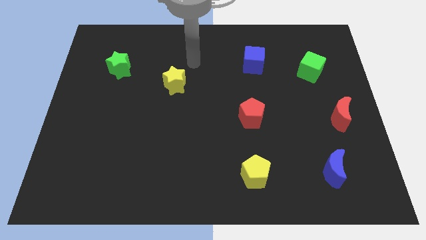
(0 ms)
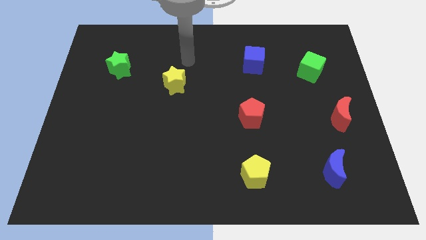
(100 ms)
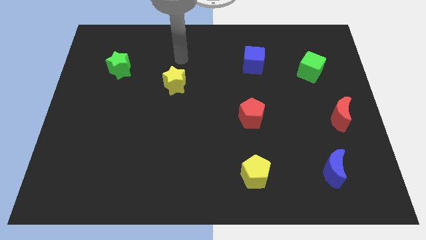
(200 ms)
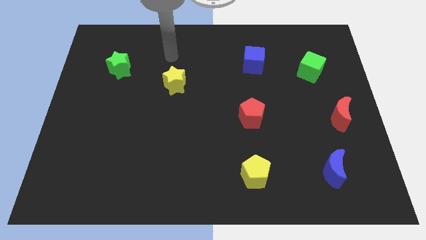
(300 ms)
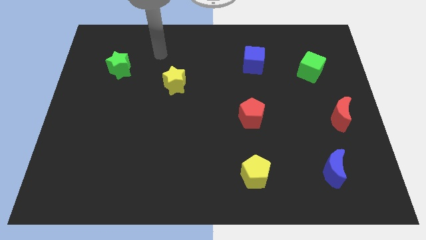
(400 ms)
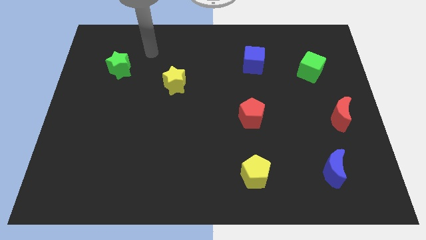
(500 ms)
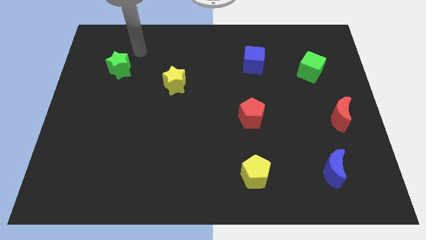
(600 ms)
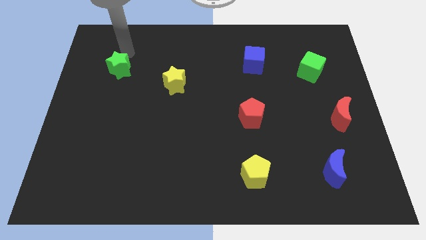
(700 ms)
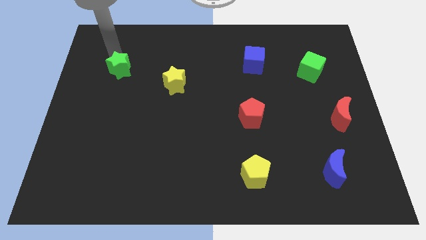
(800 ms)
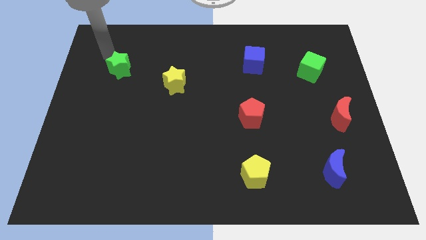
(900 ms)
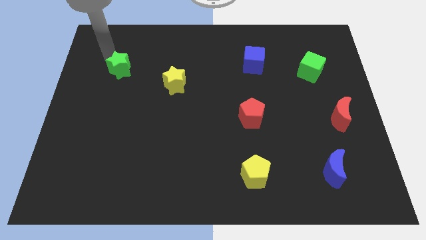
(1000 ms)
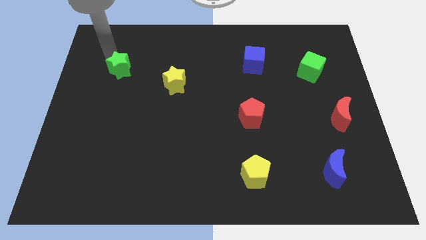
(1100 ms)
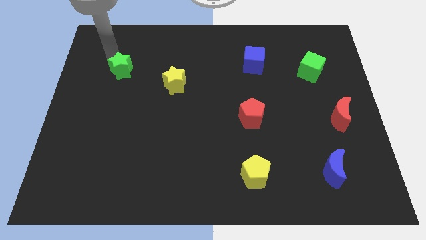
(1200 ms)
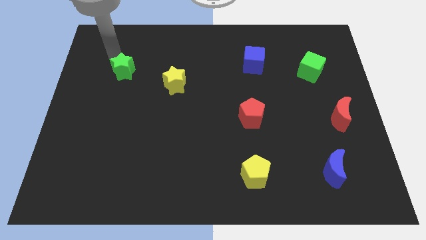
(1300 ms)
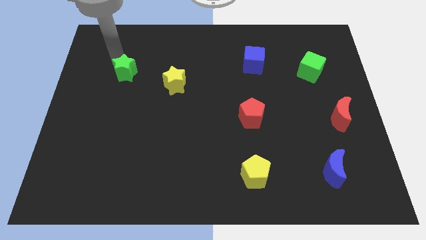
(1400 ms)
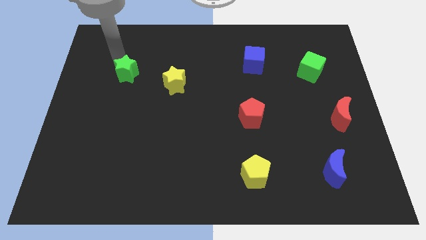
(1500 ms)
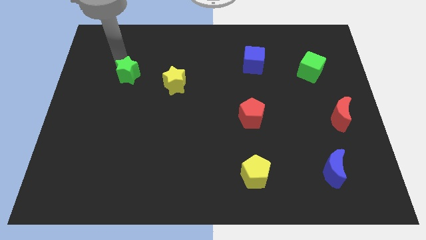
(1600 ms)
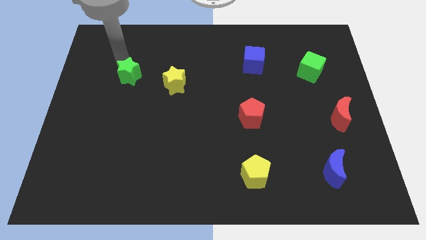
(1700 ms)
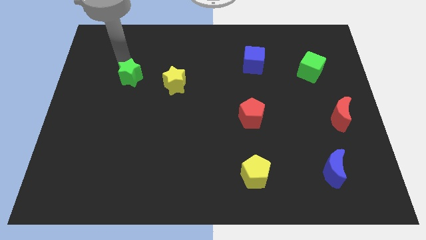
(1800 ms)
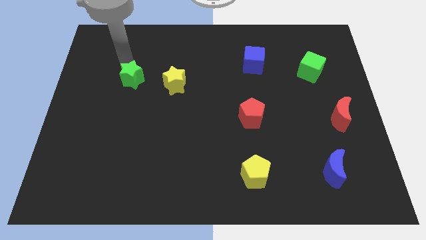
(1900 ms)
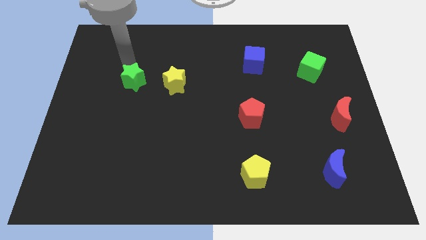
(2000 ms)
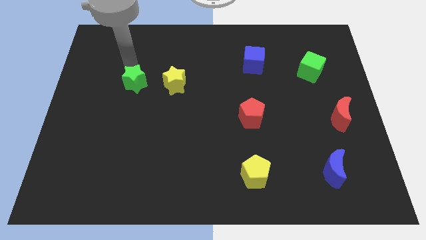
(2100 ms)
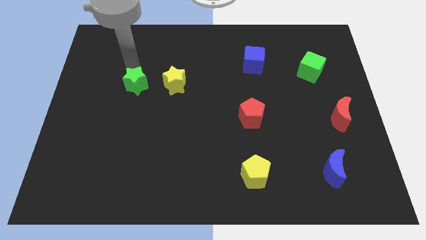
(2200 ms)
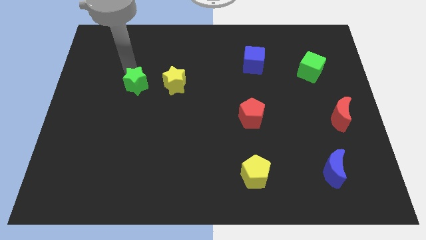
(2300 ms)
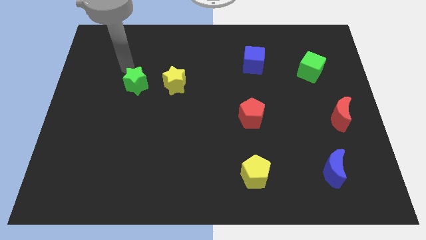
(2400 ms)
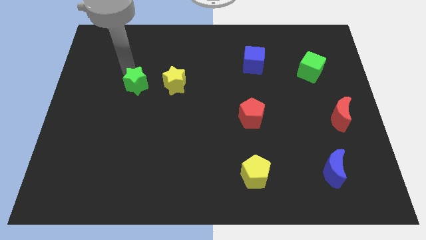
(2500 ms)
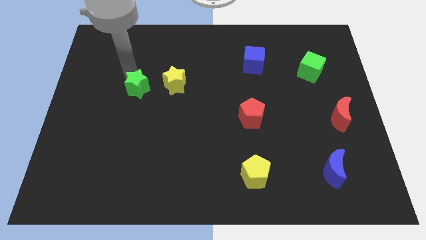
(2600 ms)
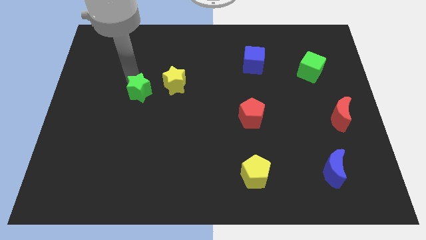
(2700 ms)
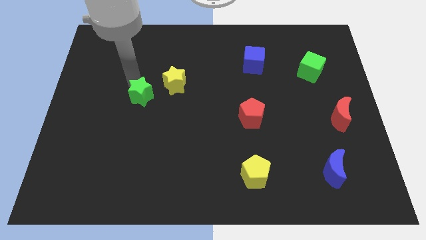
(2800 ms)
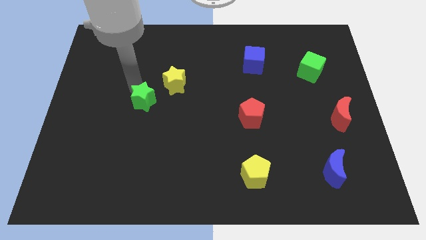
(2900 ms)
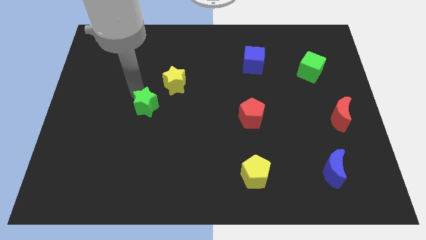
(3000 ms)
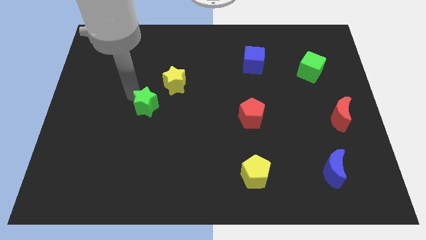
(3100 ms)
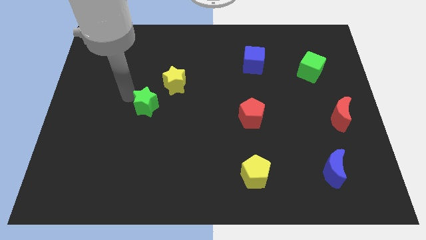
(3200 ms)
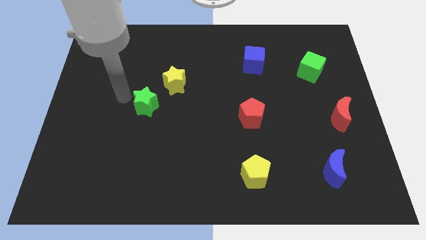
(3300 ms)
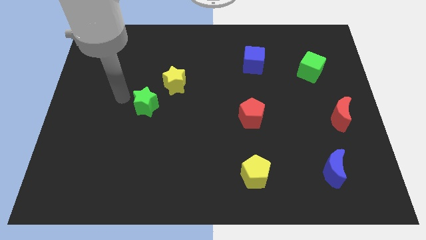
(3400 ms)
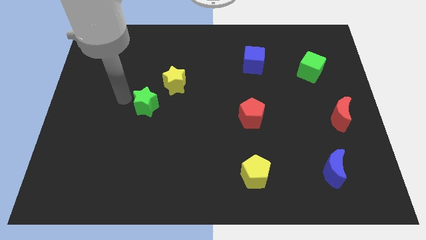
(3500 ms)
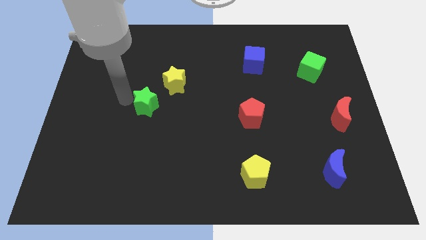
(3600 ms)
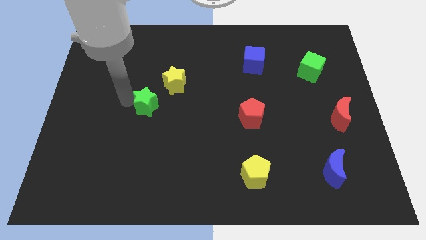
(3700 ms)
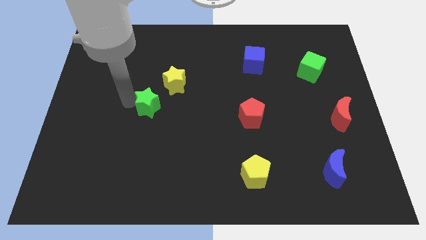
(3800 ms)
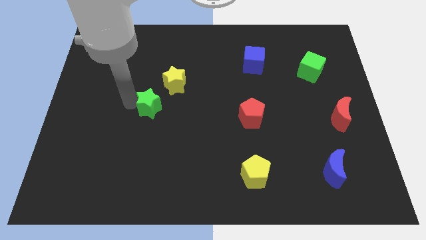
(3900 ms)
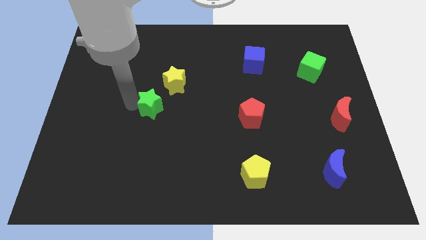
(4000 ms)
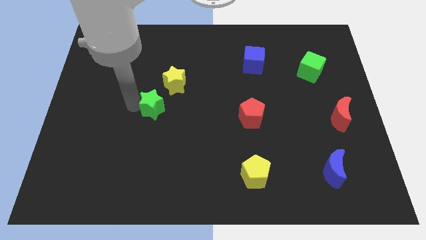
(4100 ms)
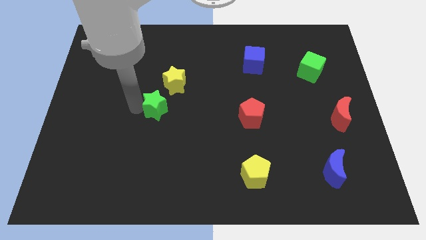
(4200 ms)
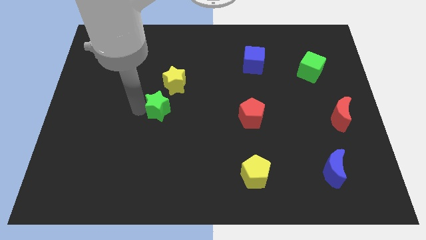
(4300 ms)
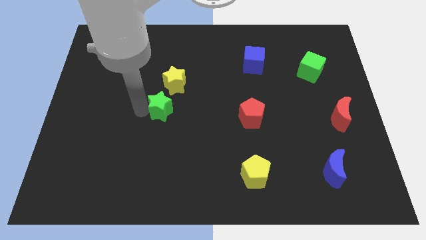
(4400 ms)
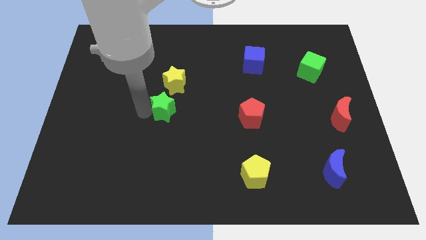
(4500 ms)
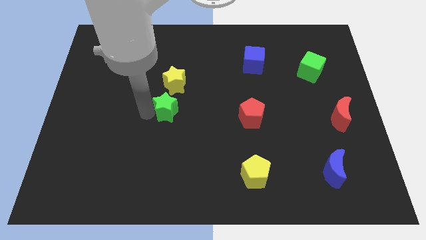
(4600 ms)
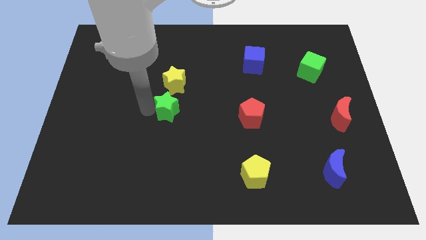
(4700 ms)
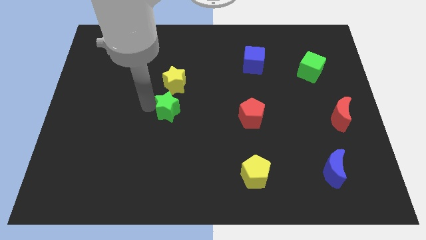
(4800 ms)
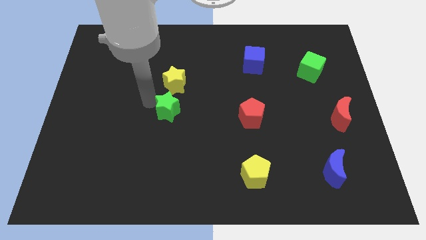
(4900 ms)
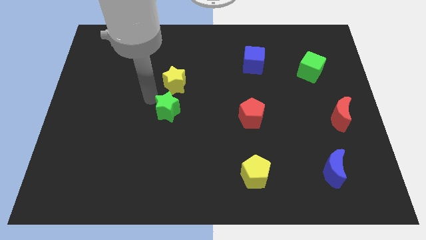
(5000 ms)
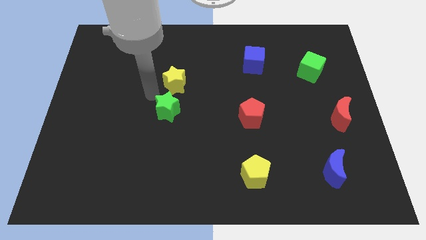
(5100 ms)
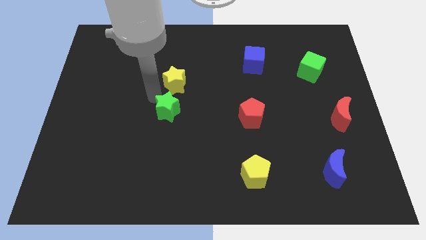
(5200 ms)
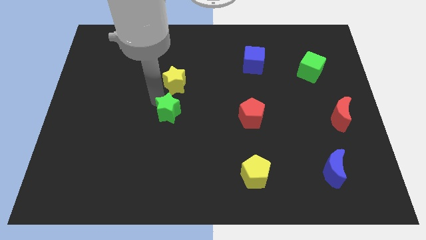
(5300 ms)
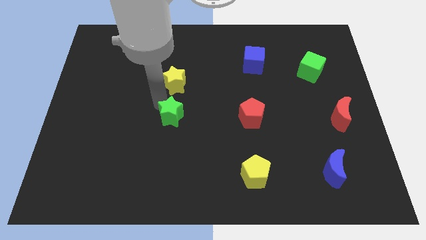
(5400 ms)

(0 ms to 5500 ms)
push the green star down and to the right

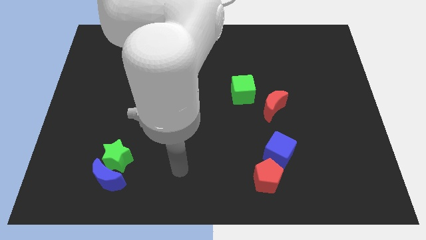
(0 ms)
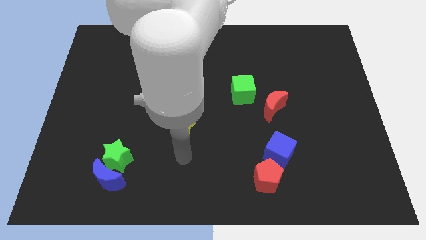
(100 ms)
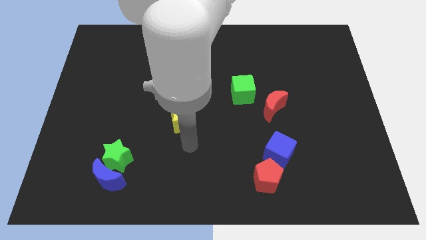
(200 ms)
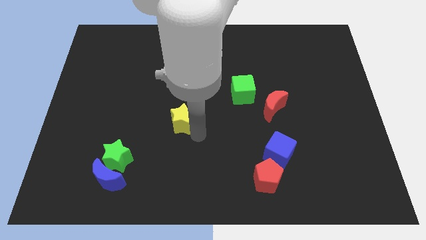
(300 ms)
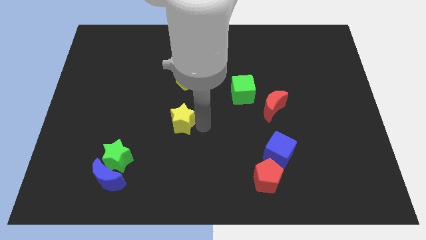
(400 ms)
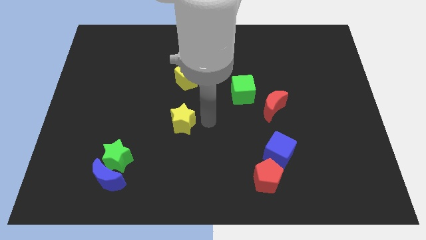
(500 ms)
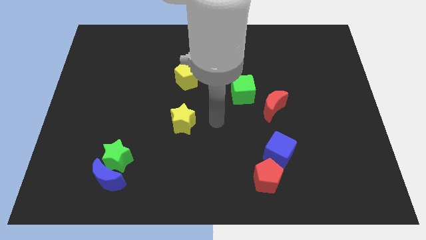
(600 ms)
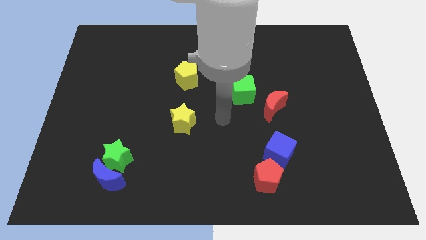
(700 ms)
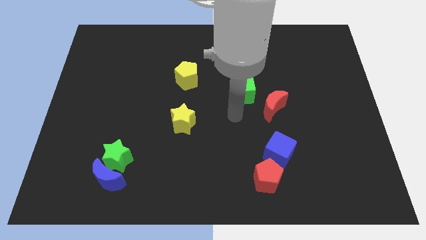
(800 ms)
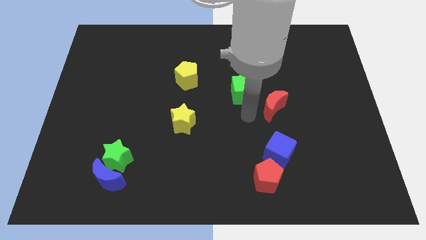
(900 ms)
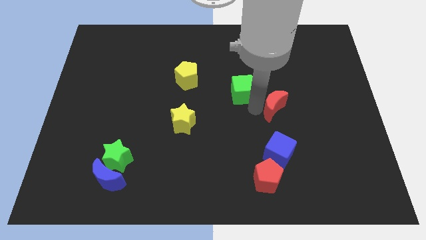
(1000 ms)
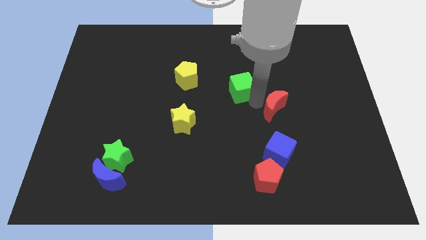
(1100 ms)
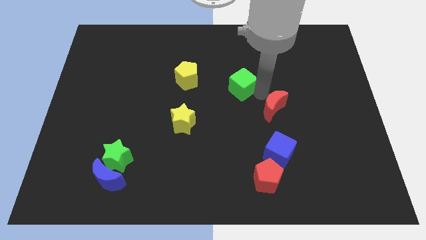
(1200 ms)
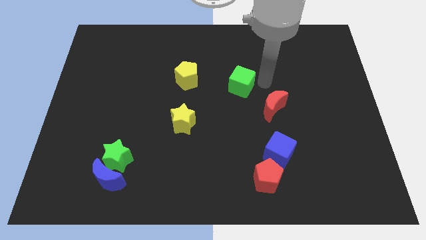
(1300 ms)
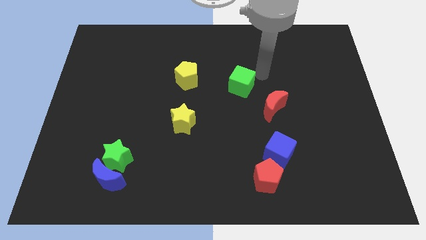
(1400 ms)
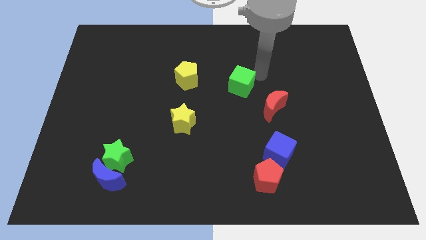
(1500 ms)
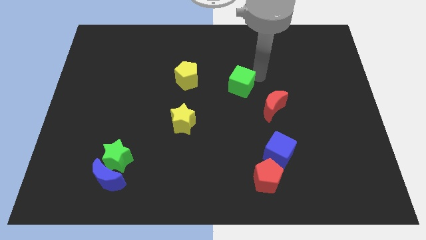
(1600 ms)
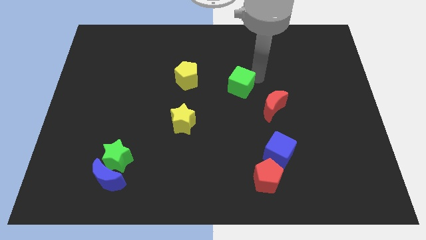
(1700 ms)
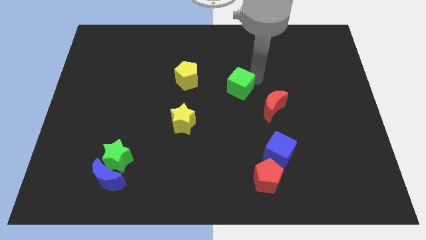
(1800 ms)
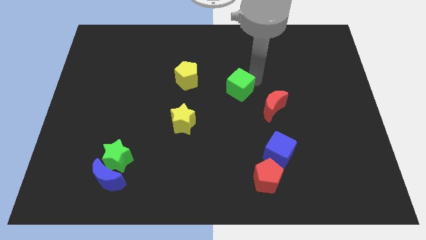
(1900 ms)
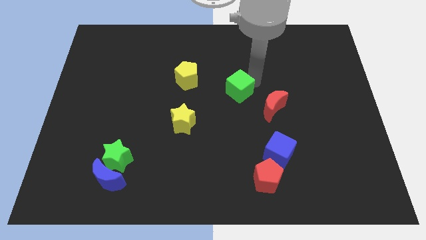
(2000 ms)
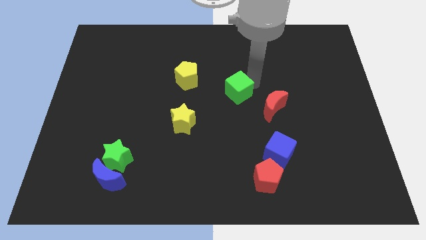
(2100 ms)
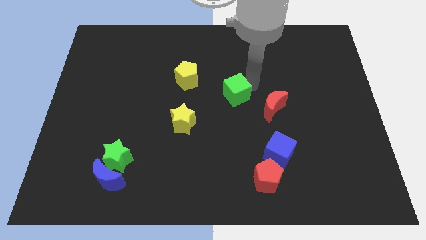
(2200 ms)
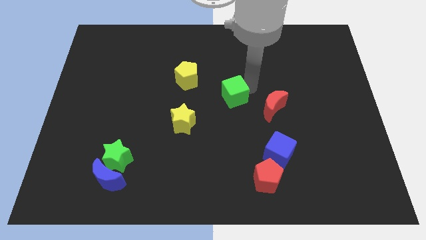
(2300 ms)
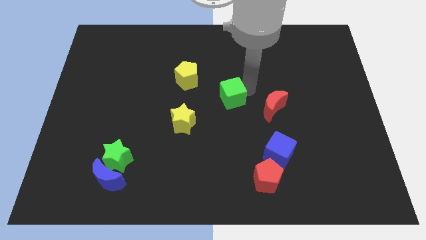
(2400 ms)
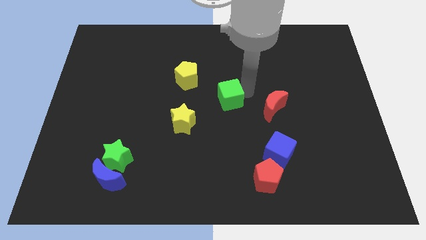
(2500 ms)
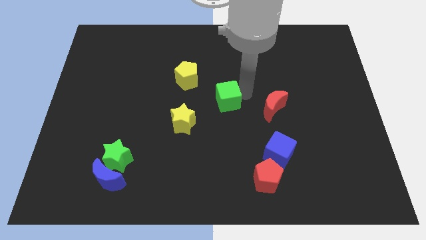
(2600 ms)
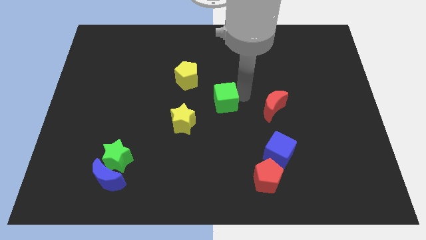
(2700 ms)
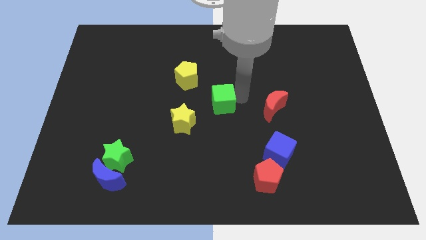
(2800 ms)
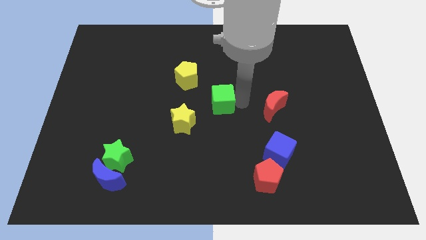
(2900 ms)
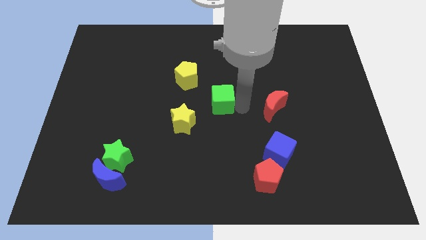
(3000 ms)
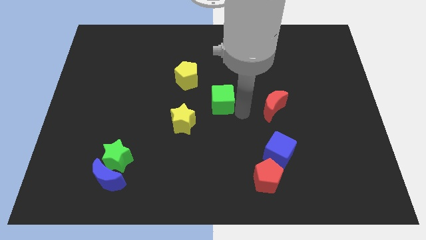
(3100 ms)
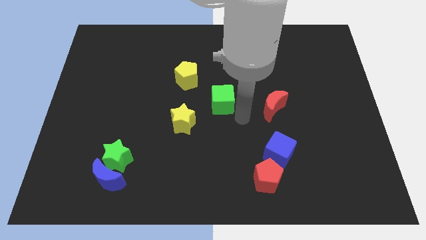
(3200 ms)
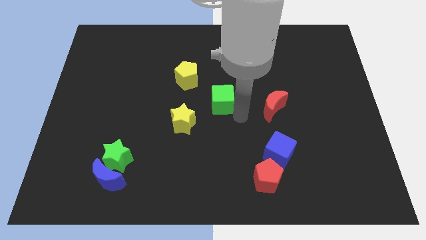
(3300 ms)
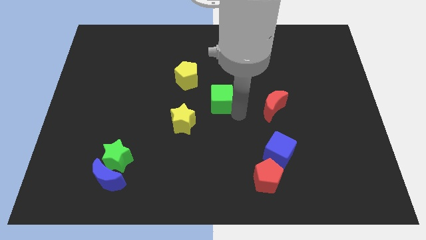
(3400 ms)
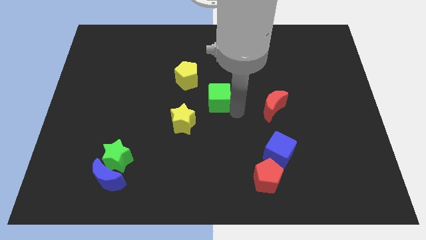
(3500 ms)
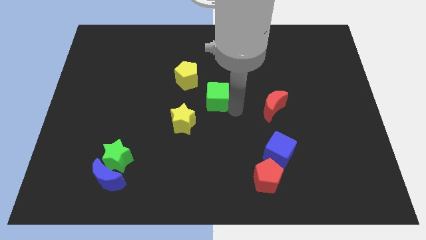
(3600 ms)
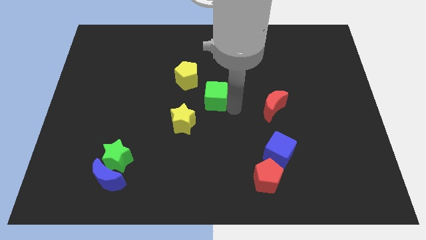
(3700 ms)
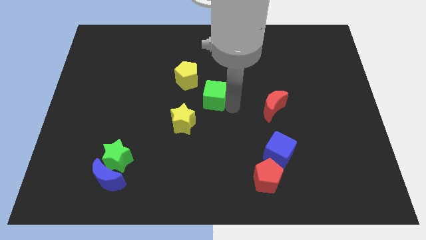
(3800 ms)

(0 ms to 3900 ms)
push the green cube a little to the left
